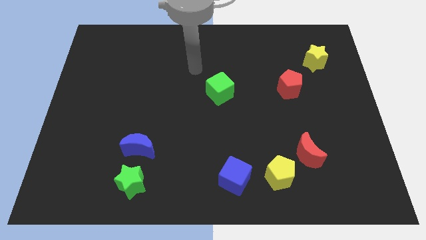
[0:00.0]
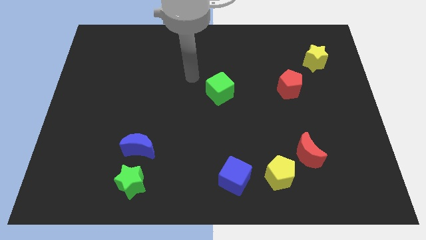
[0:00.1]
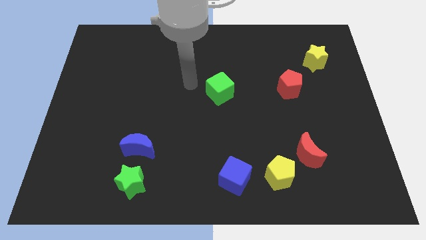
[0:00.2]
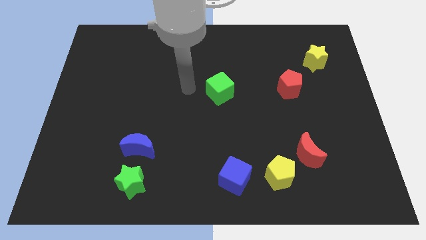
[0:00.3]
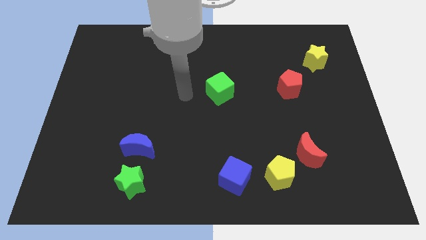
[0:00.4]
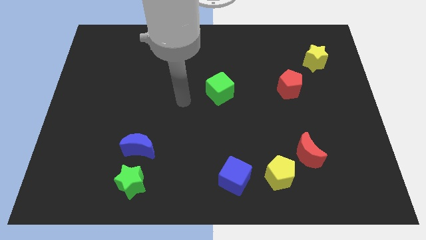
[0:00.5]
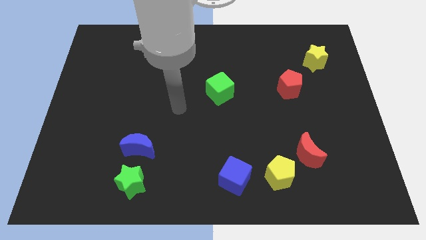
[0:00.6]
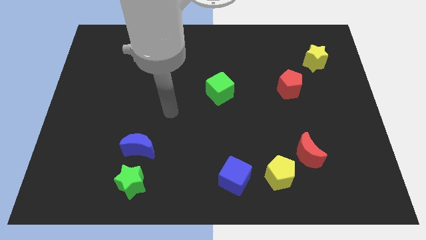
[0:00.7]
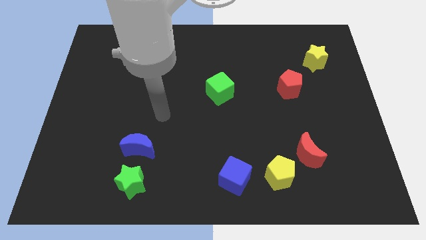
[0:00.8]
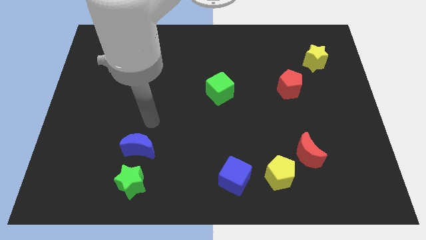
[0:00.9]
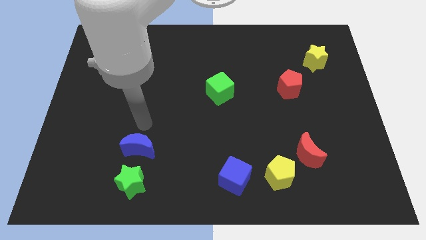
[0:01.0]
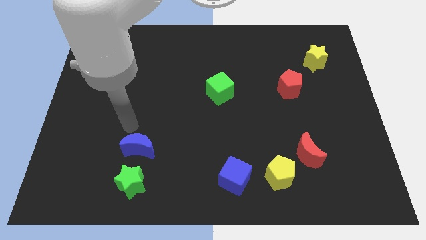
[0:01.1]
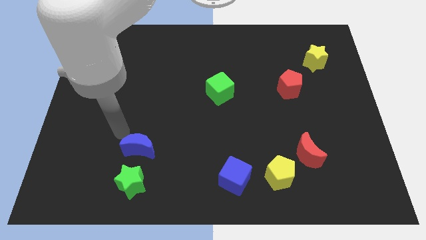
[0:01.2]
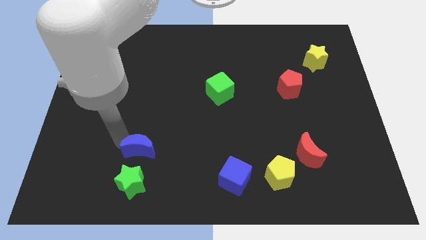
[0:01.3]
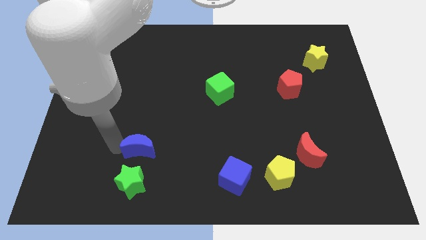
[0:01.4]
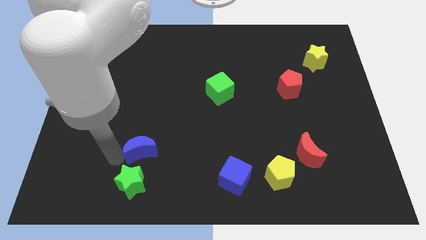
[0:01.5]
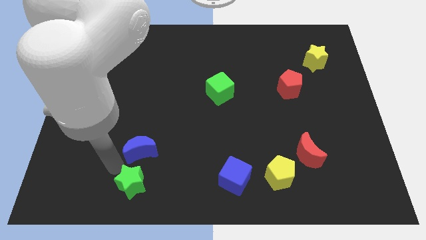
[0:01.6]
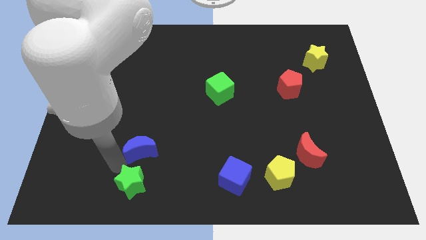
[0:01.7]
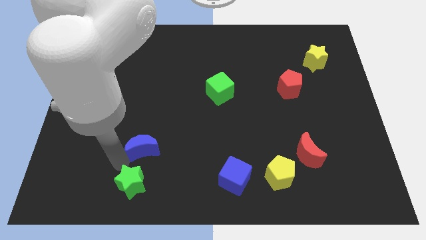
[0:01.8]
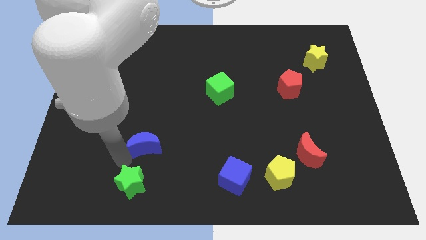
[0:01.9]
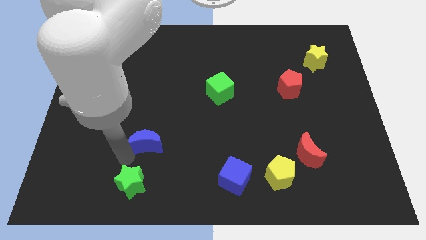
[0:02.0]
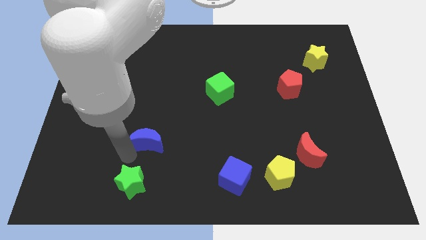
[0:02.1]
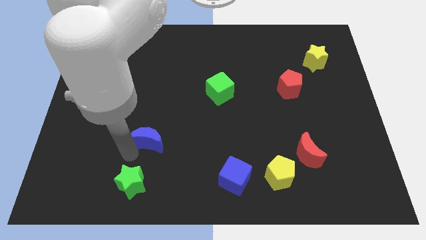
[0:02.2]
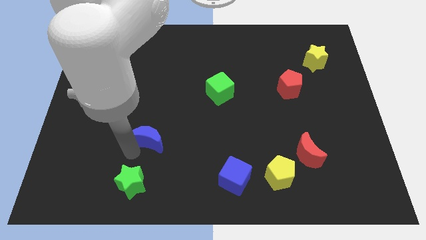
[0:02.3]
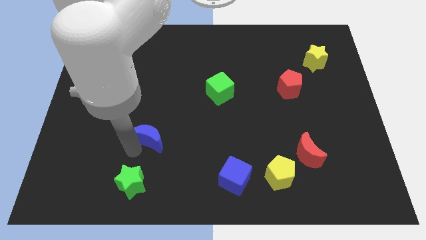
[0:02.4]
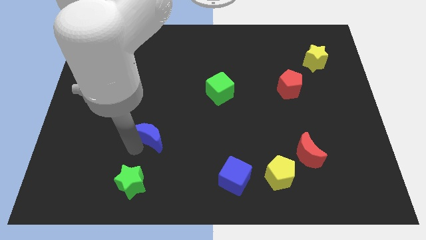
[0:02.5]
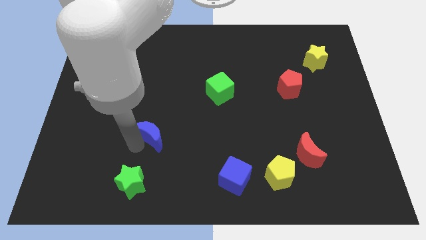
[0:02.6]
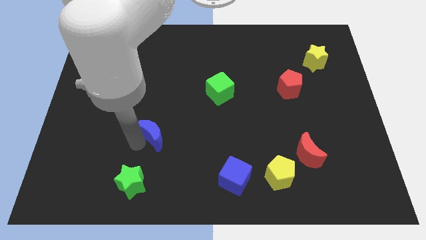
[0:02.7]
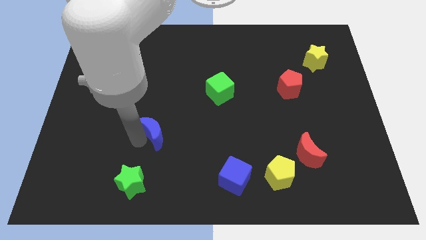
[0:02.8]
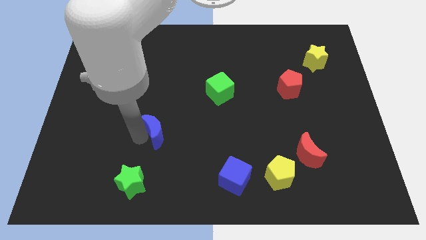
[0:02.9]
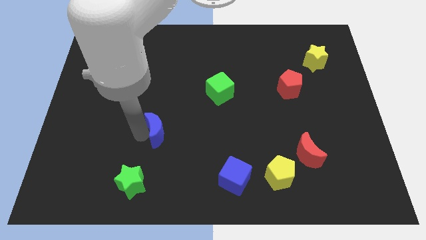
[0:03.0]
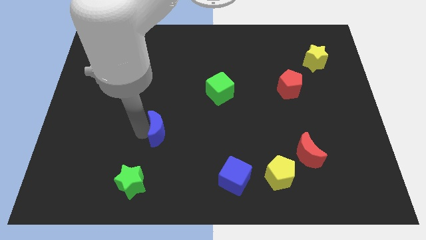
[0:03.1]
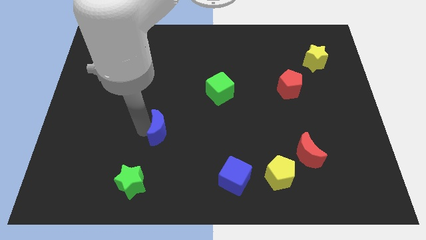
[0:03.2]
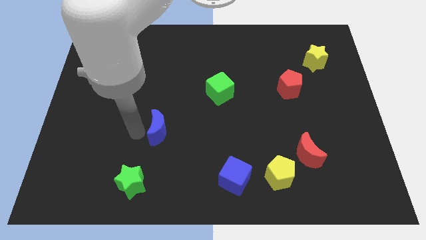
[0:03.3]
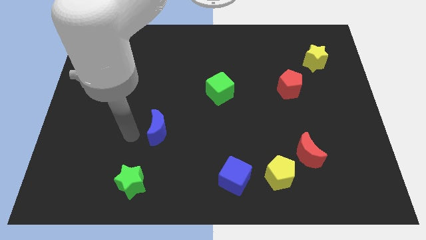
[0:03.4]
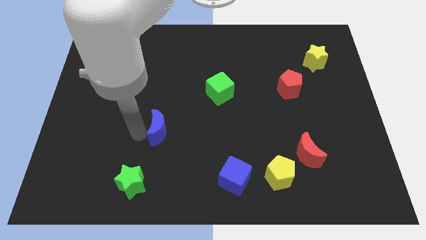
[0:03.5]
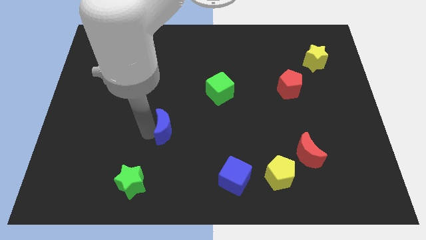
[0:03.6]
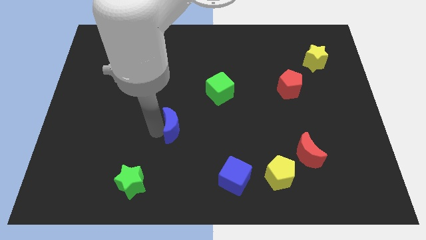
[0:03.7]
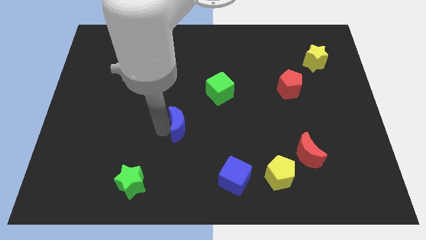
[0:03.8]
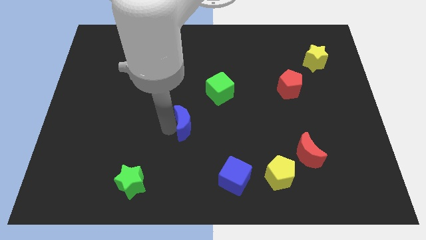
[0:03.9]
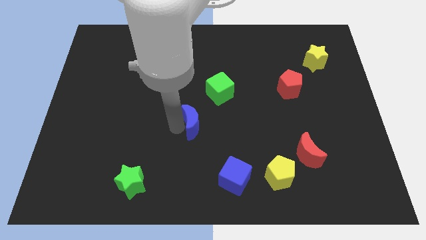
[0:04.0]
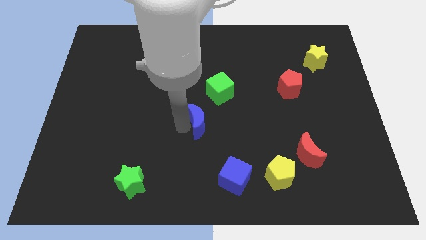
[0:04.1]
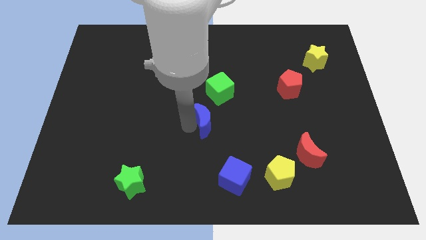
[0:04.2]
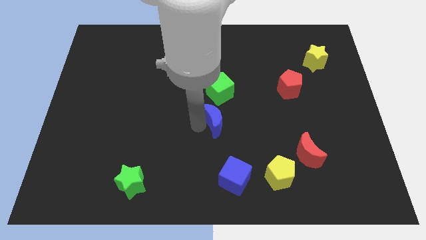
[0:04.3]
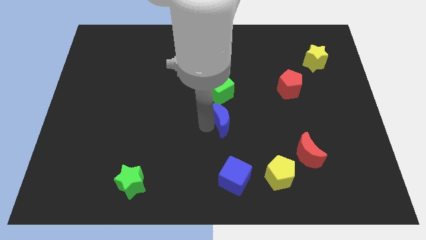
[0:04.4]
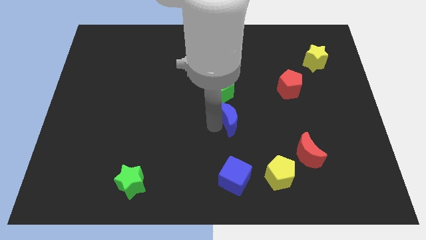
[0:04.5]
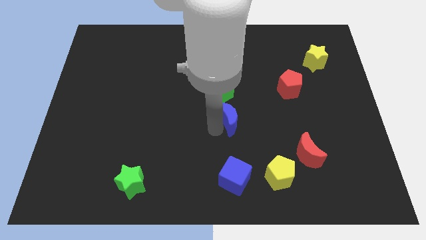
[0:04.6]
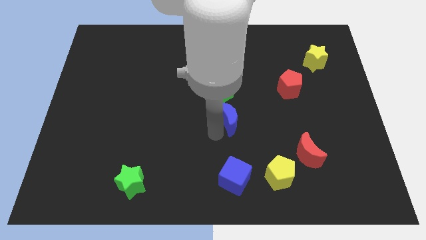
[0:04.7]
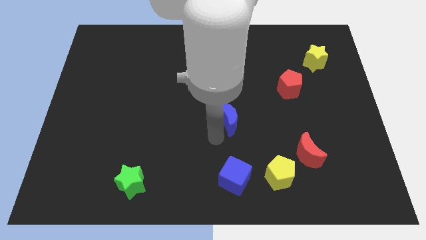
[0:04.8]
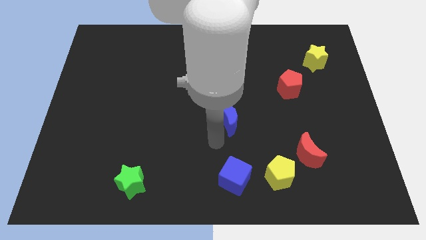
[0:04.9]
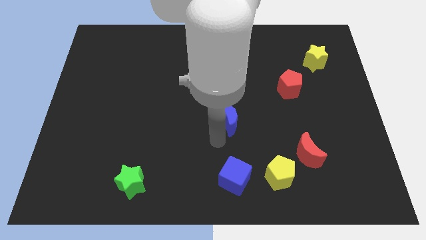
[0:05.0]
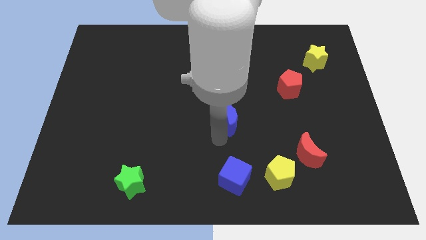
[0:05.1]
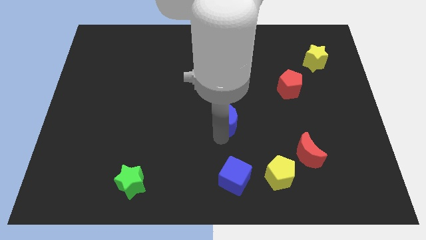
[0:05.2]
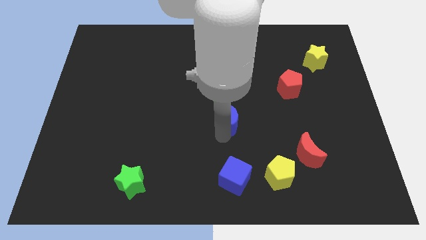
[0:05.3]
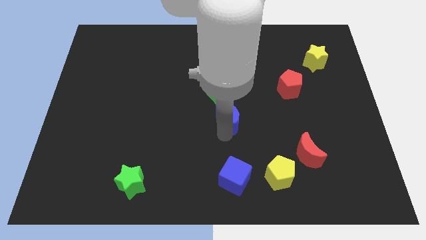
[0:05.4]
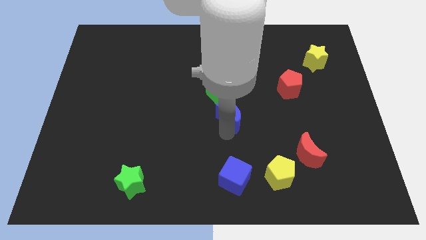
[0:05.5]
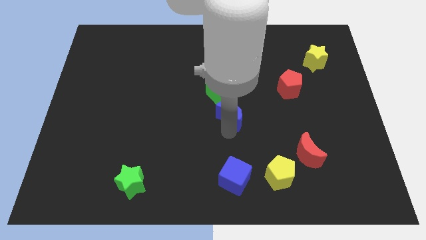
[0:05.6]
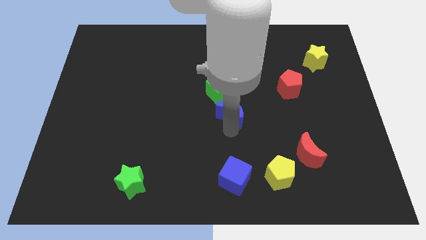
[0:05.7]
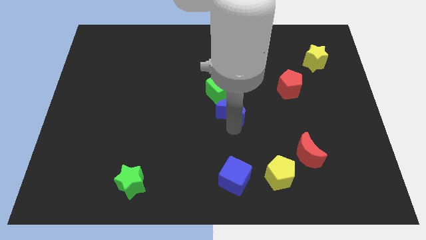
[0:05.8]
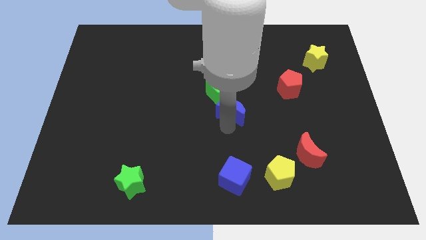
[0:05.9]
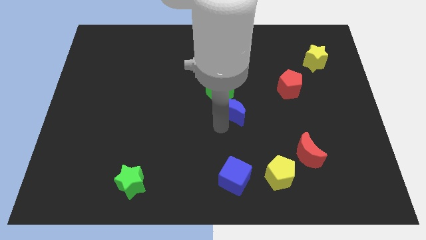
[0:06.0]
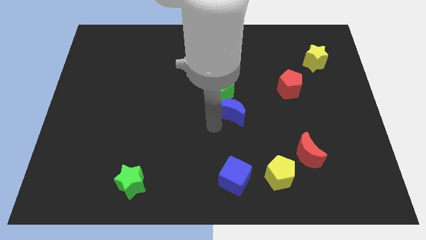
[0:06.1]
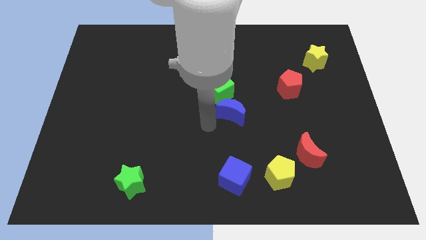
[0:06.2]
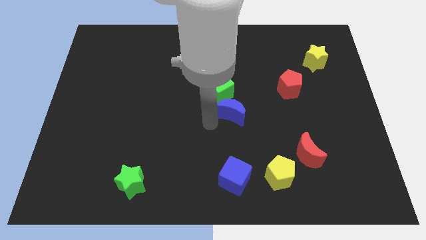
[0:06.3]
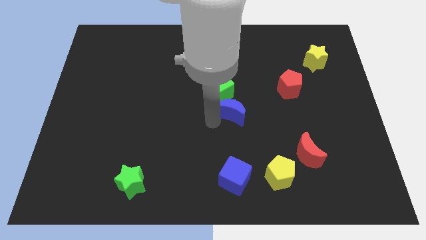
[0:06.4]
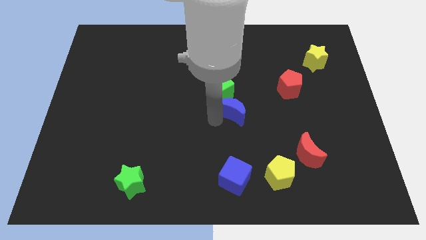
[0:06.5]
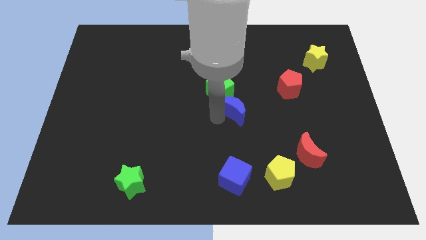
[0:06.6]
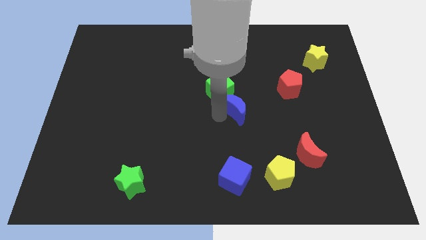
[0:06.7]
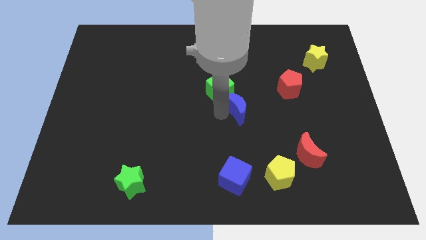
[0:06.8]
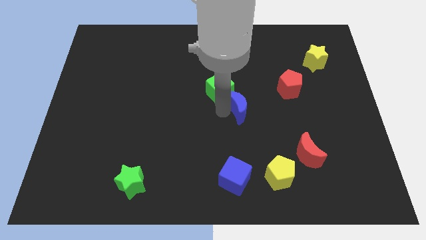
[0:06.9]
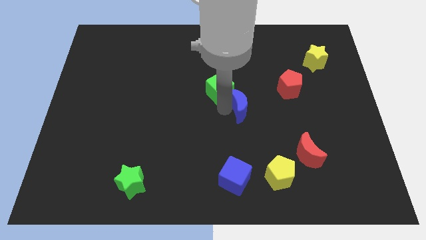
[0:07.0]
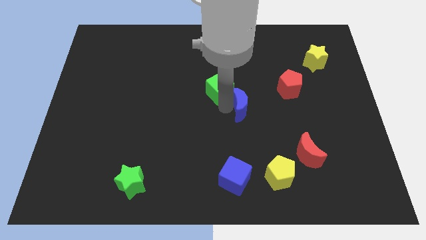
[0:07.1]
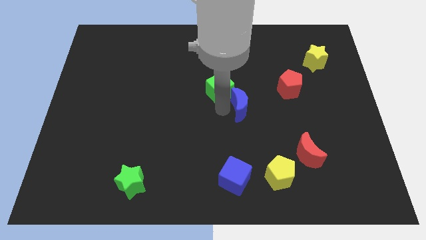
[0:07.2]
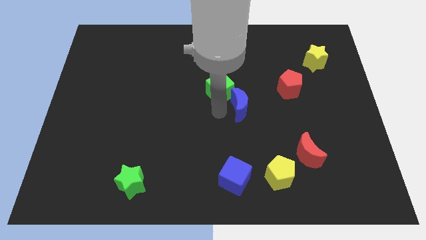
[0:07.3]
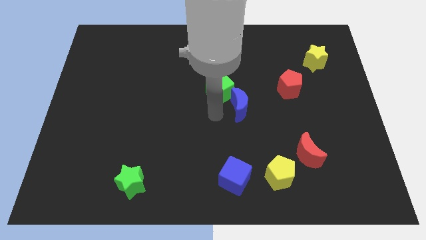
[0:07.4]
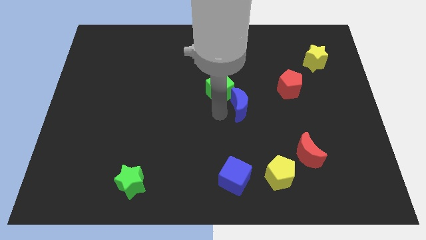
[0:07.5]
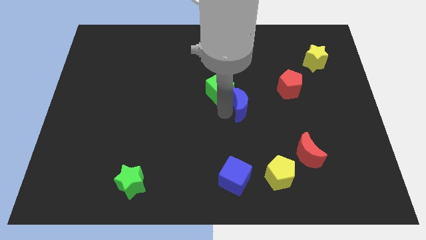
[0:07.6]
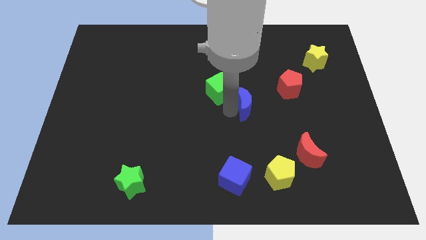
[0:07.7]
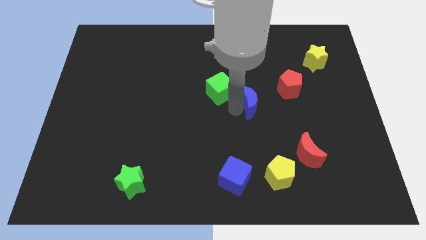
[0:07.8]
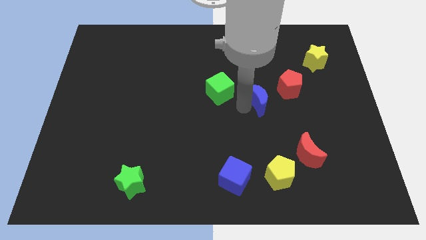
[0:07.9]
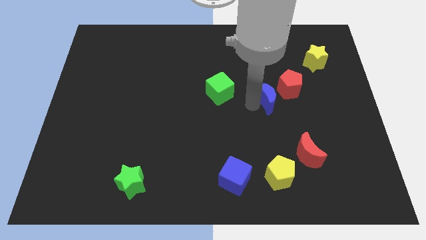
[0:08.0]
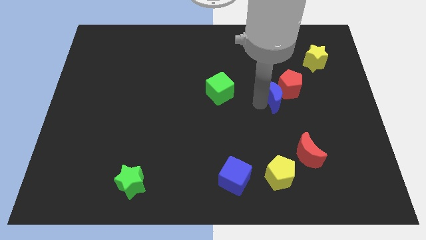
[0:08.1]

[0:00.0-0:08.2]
put the blue moon next to the red pentagon

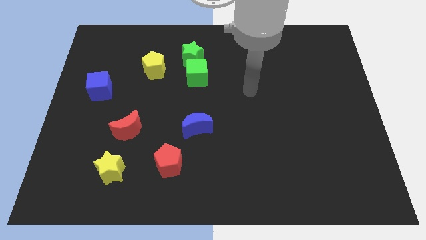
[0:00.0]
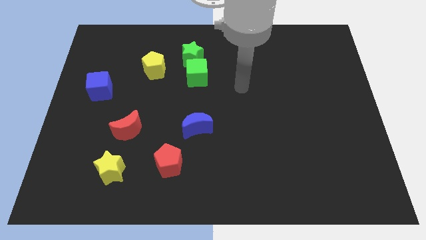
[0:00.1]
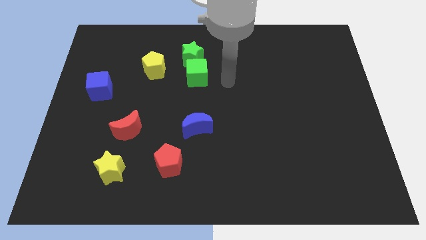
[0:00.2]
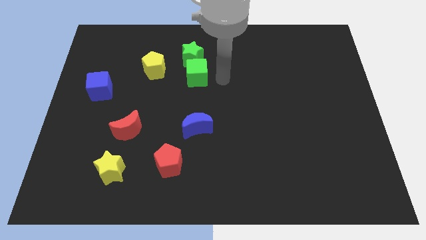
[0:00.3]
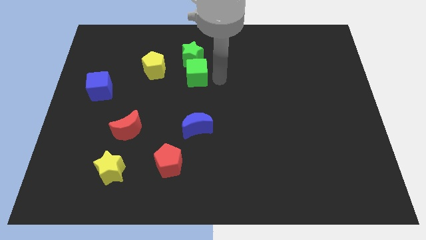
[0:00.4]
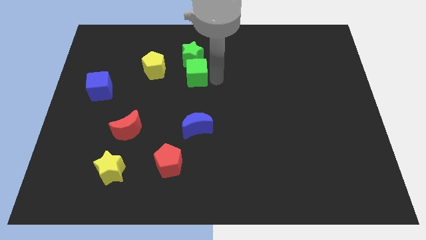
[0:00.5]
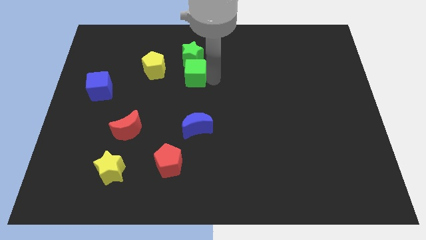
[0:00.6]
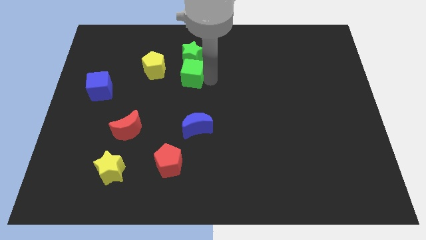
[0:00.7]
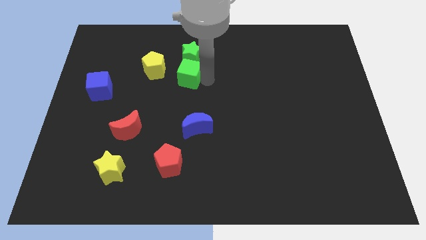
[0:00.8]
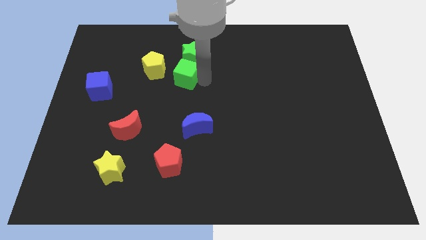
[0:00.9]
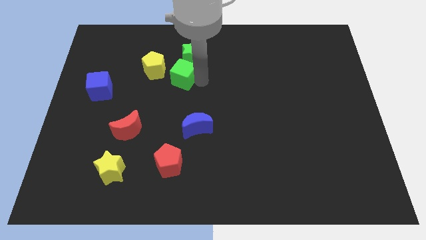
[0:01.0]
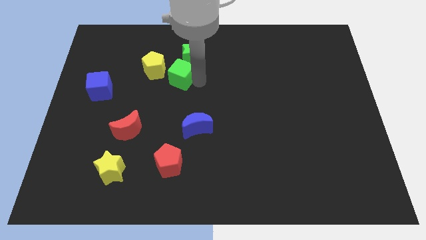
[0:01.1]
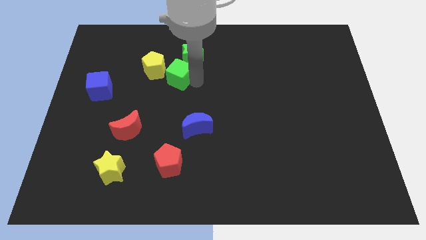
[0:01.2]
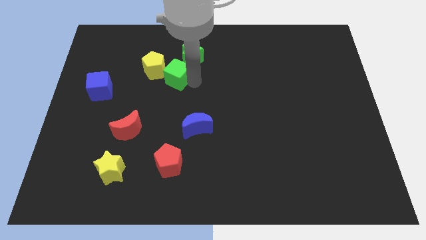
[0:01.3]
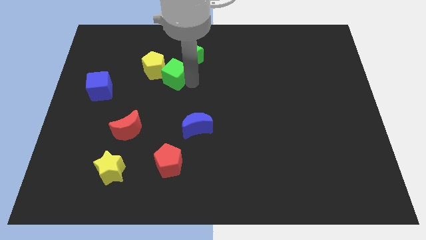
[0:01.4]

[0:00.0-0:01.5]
push the green cube to the yellow pentagon
